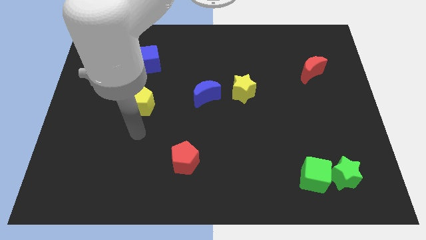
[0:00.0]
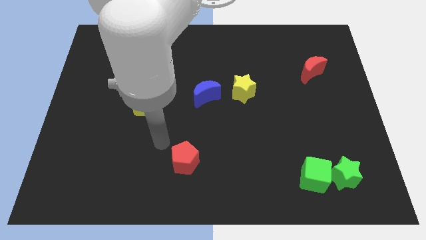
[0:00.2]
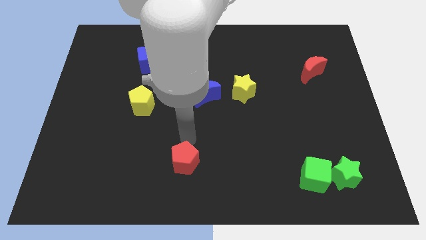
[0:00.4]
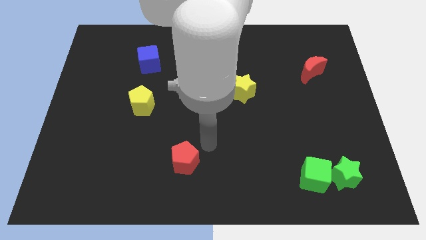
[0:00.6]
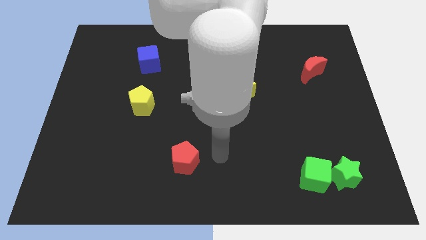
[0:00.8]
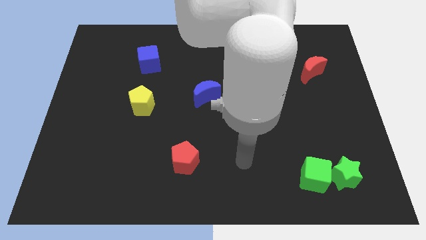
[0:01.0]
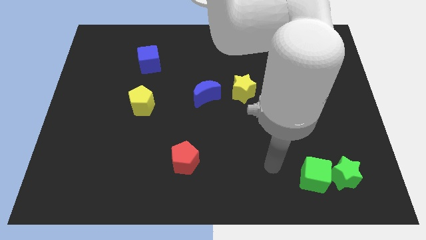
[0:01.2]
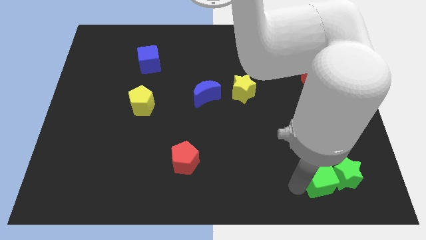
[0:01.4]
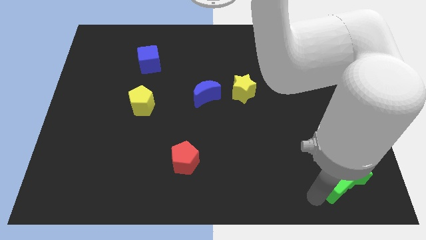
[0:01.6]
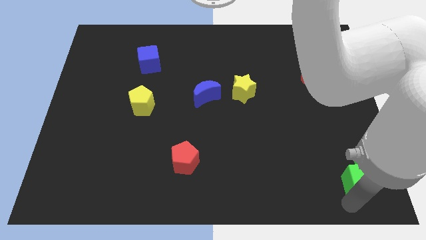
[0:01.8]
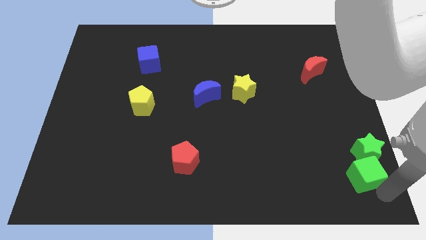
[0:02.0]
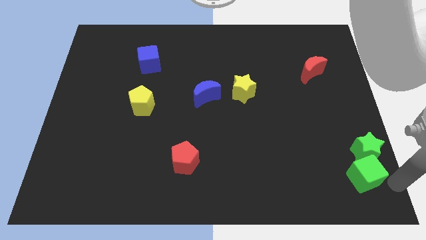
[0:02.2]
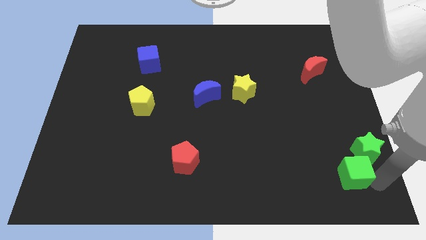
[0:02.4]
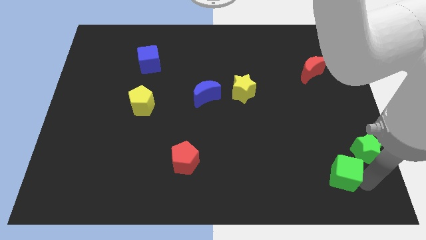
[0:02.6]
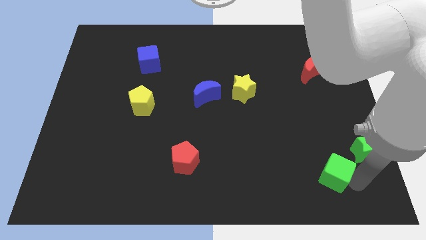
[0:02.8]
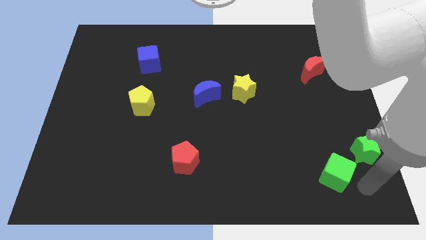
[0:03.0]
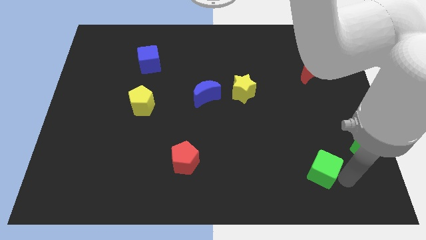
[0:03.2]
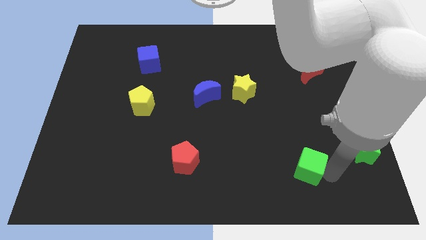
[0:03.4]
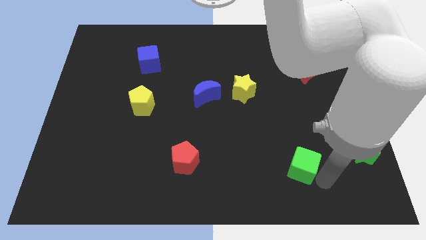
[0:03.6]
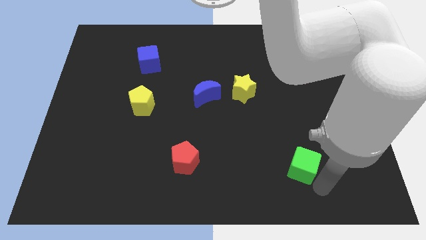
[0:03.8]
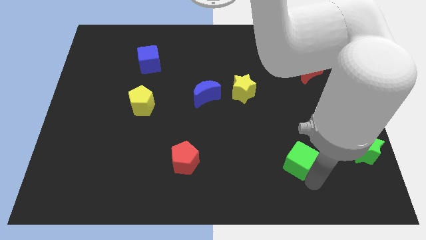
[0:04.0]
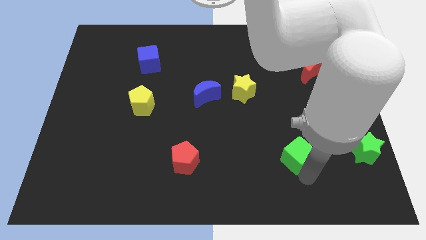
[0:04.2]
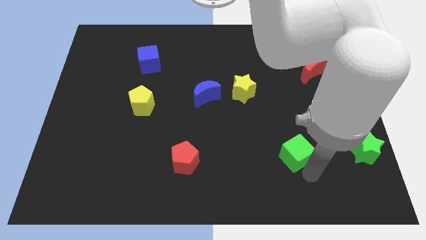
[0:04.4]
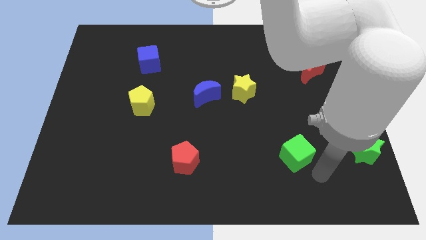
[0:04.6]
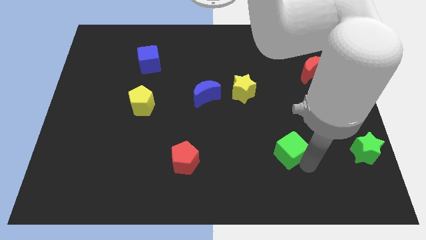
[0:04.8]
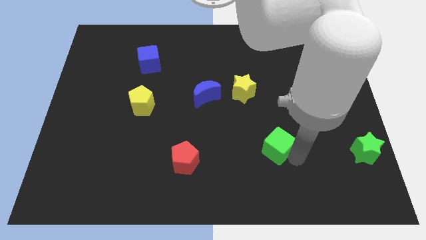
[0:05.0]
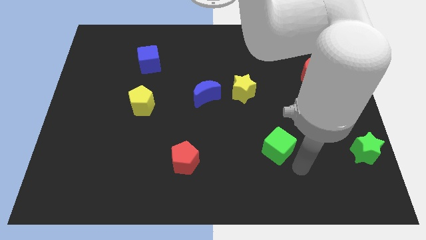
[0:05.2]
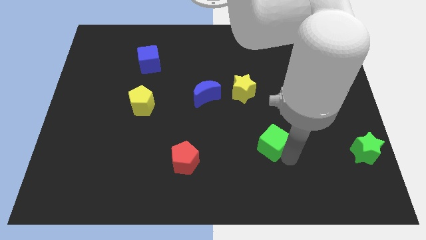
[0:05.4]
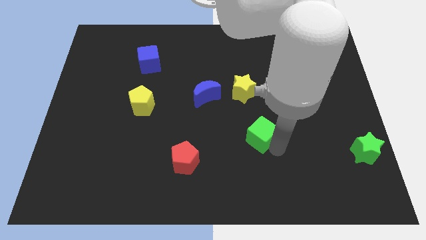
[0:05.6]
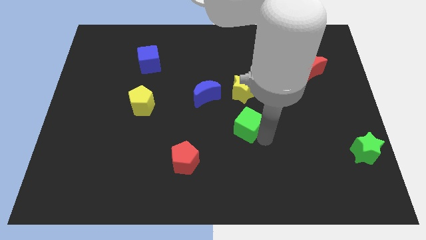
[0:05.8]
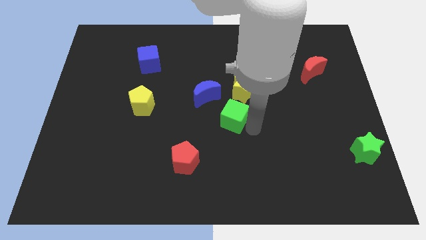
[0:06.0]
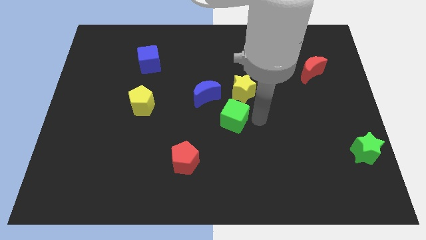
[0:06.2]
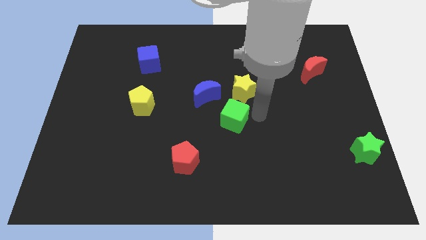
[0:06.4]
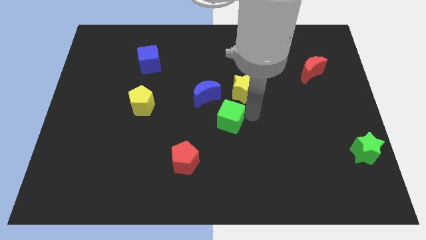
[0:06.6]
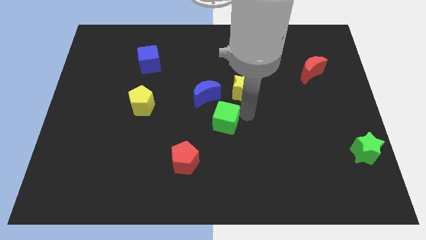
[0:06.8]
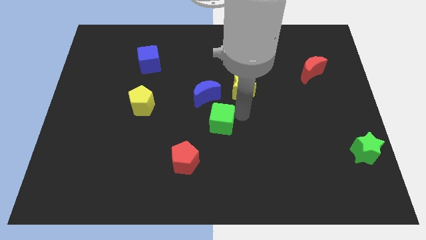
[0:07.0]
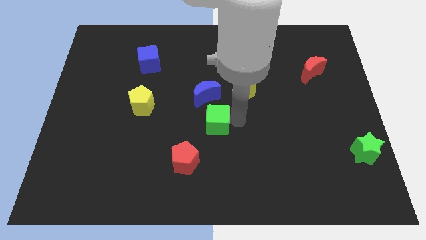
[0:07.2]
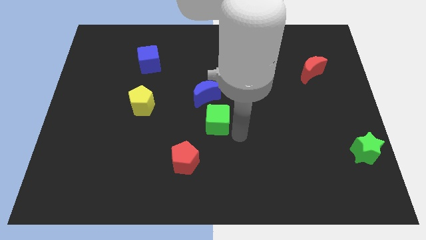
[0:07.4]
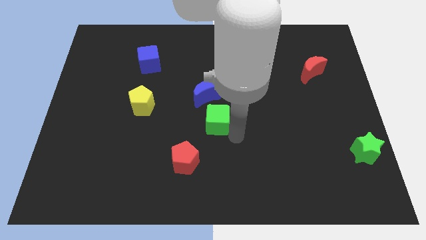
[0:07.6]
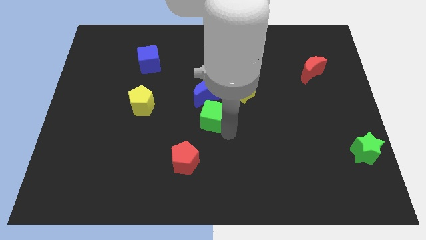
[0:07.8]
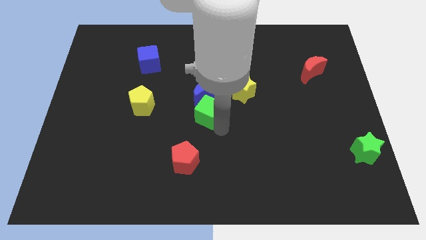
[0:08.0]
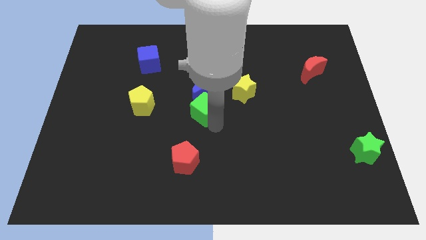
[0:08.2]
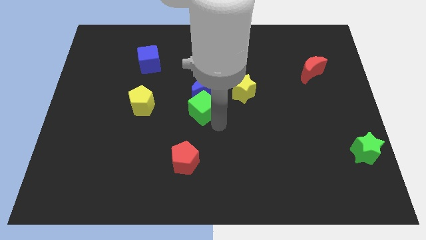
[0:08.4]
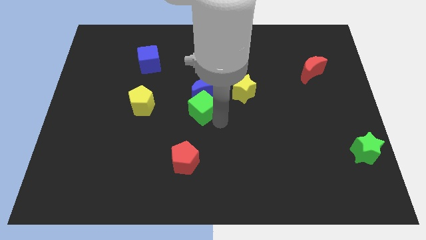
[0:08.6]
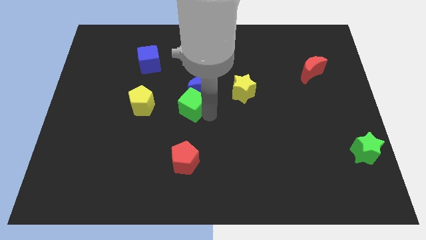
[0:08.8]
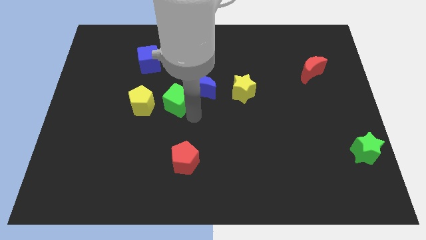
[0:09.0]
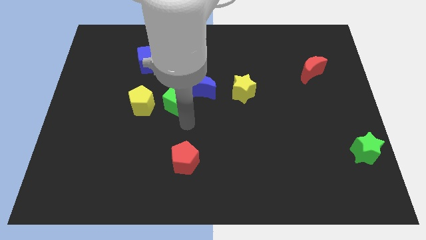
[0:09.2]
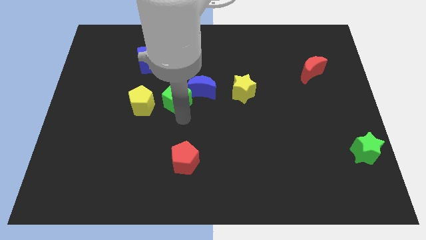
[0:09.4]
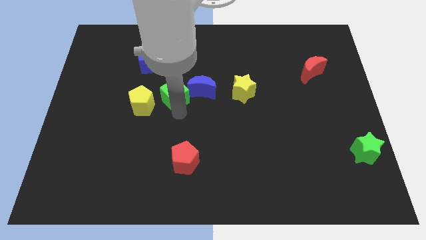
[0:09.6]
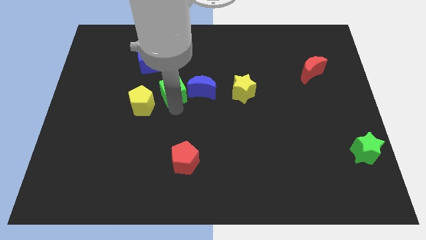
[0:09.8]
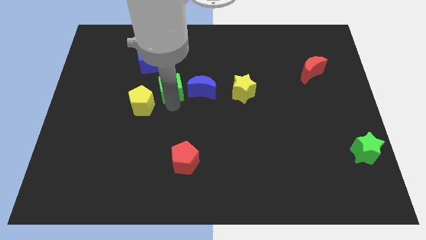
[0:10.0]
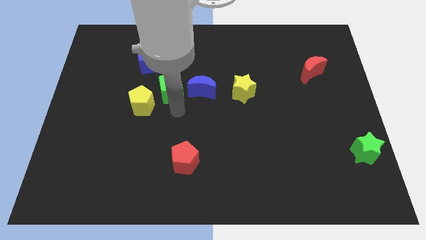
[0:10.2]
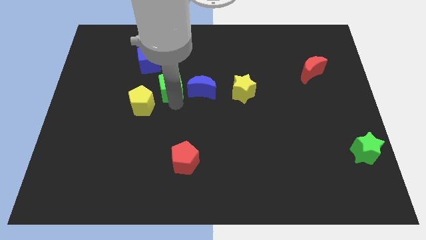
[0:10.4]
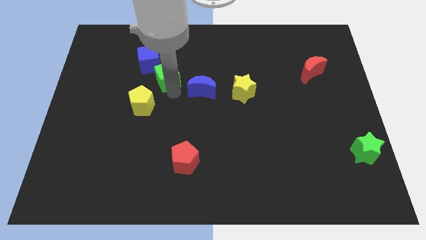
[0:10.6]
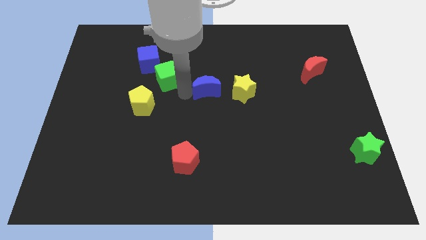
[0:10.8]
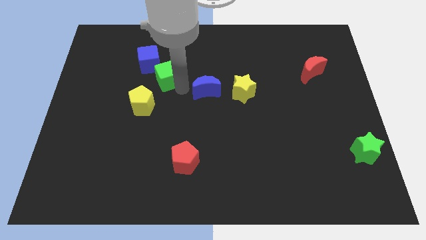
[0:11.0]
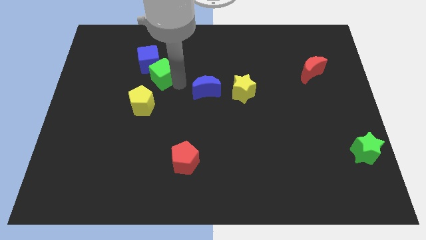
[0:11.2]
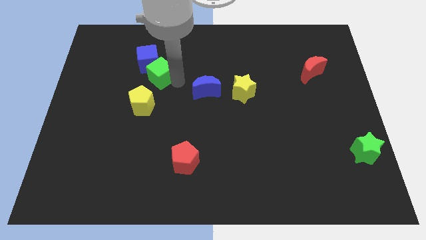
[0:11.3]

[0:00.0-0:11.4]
move the green cube to the blue cube

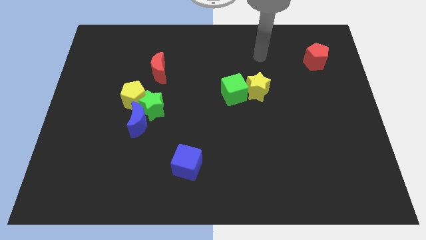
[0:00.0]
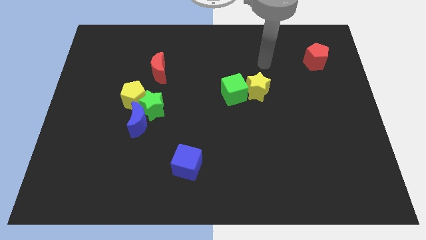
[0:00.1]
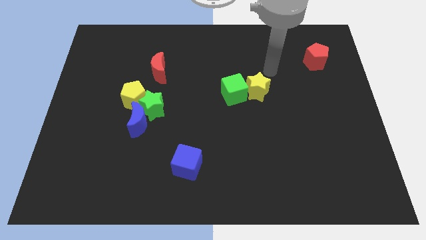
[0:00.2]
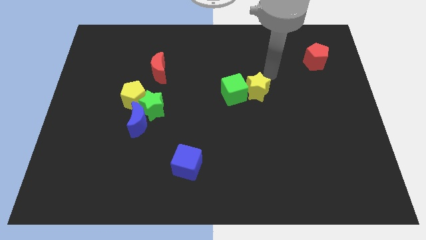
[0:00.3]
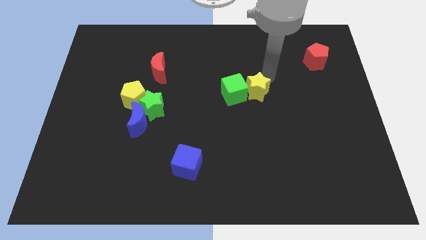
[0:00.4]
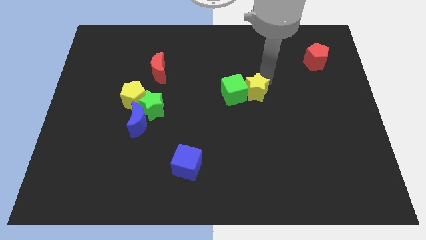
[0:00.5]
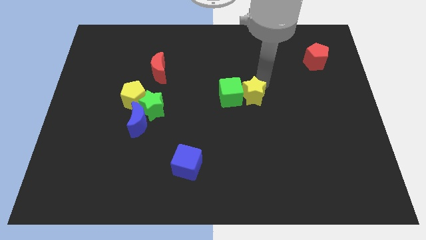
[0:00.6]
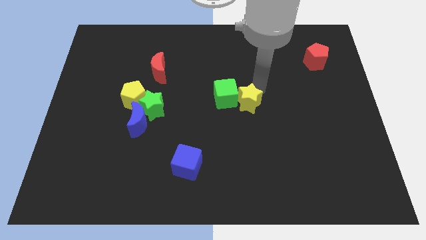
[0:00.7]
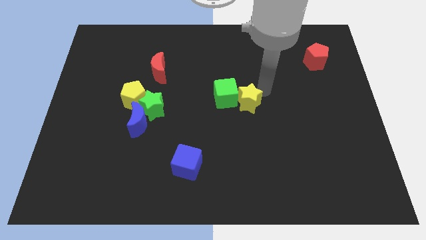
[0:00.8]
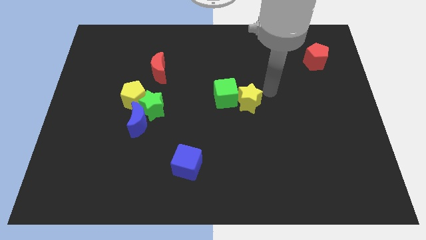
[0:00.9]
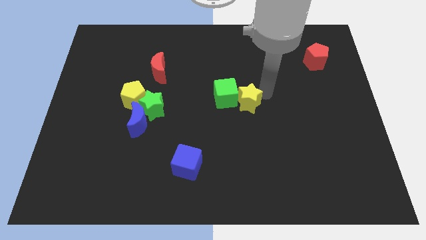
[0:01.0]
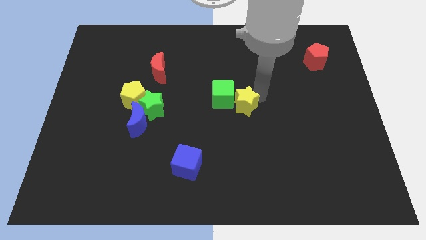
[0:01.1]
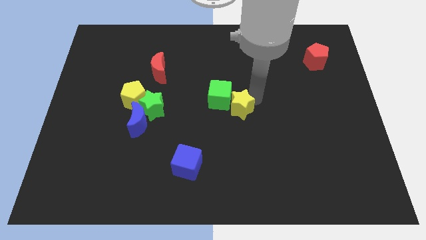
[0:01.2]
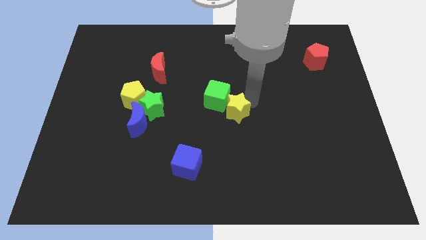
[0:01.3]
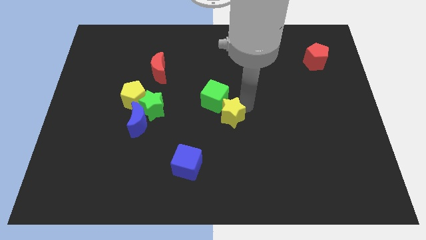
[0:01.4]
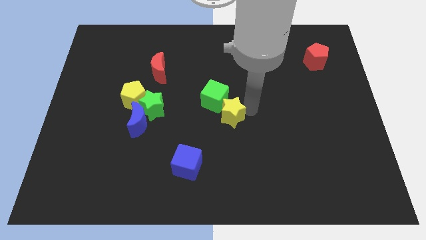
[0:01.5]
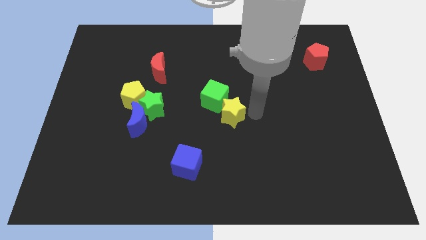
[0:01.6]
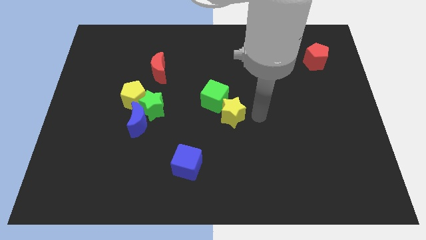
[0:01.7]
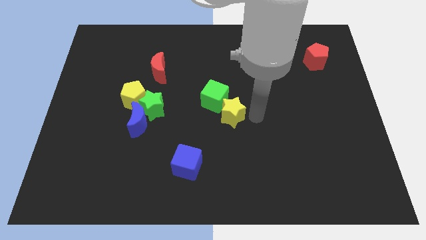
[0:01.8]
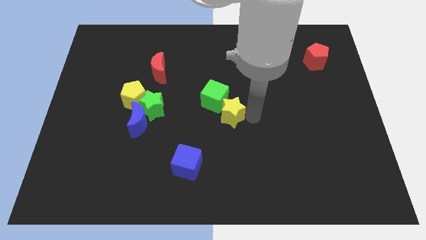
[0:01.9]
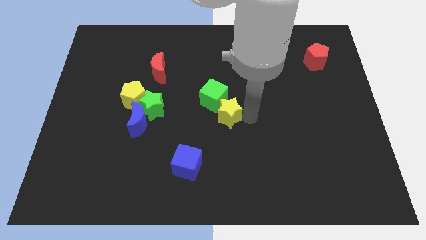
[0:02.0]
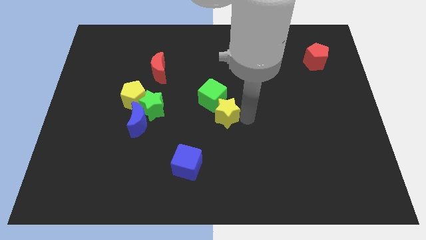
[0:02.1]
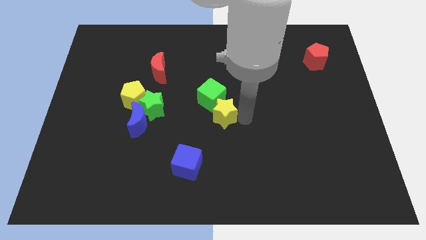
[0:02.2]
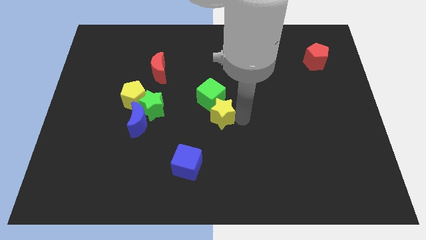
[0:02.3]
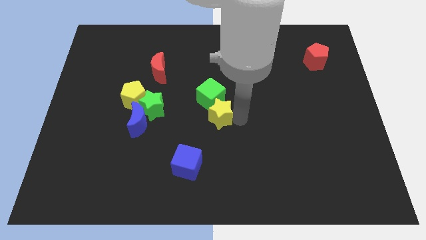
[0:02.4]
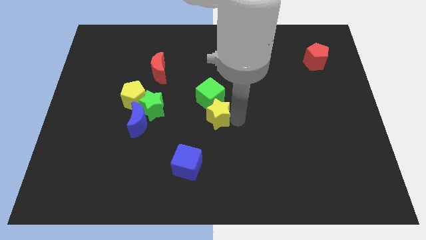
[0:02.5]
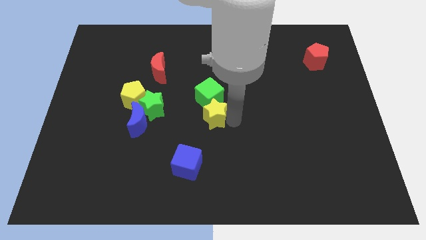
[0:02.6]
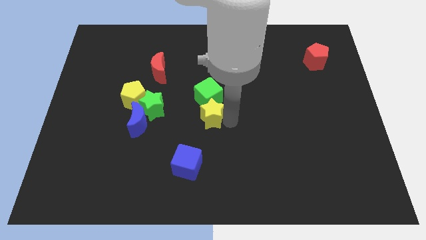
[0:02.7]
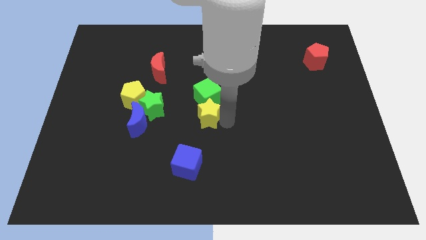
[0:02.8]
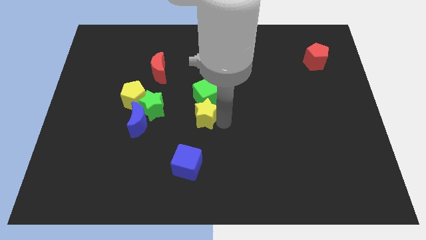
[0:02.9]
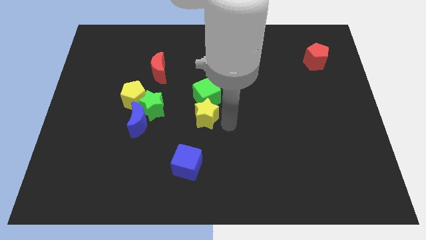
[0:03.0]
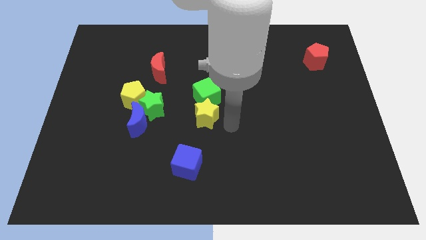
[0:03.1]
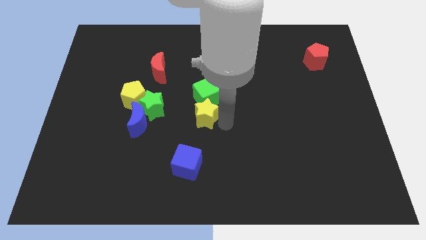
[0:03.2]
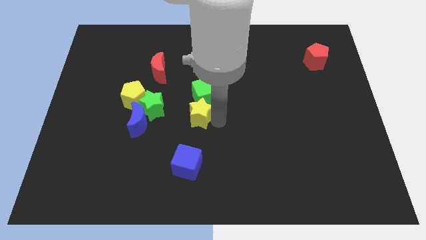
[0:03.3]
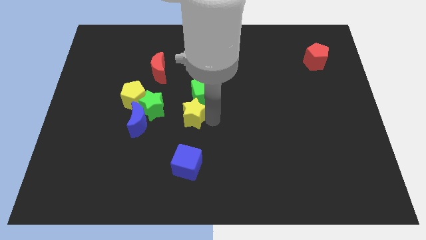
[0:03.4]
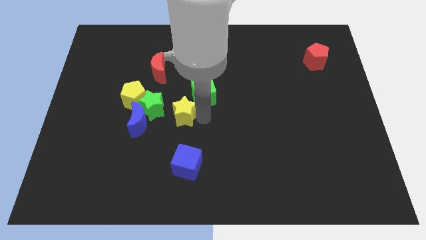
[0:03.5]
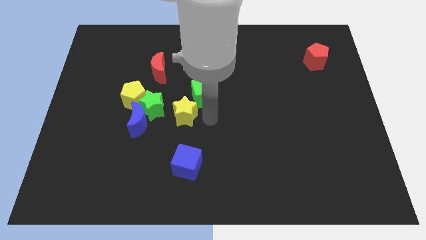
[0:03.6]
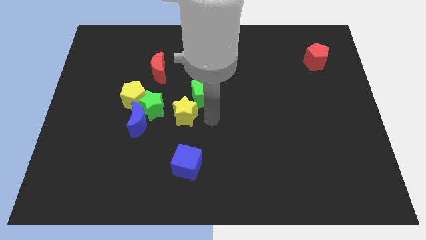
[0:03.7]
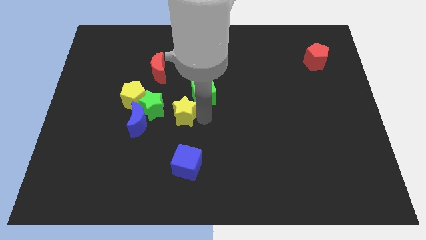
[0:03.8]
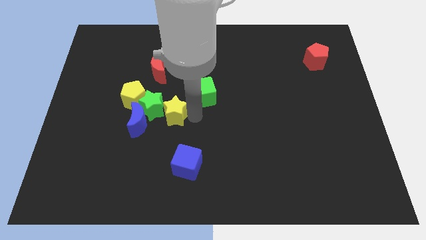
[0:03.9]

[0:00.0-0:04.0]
slide the yellow star towards the green star
